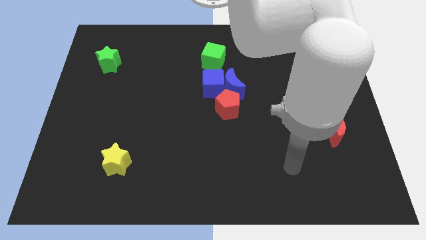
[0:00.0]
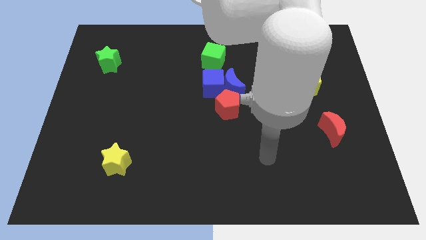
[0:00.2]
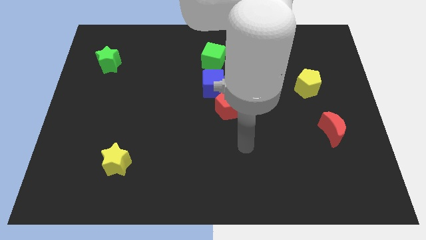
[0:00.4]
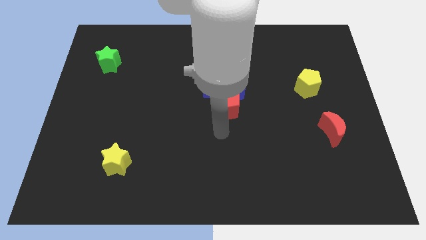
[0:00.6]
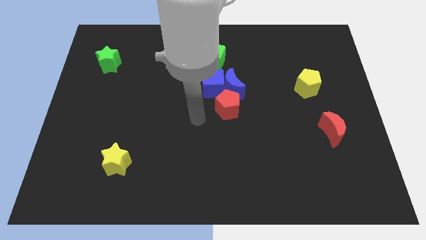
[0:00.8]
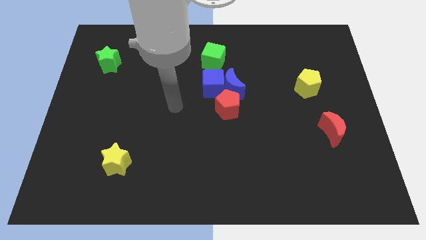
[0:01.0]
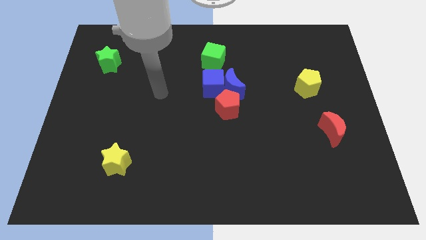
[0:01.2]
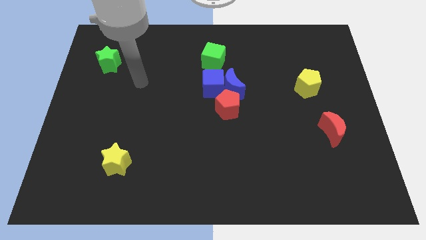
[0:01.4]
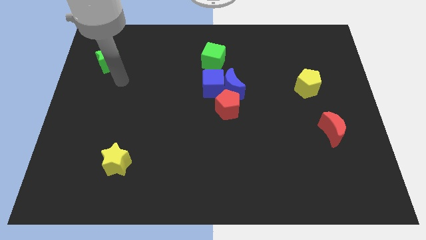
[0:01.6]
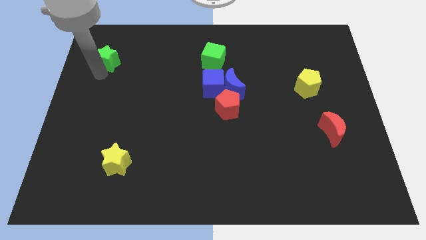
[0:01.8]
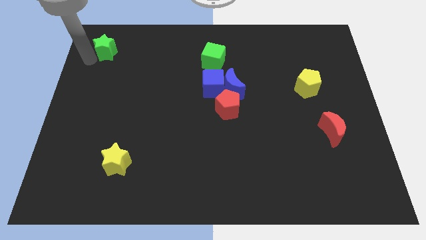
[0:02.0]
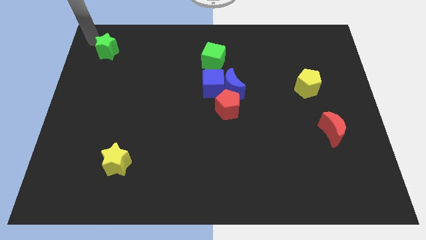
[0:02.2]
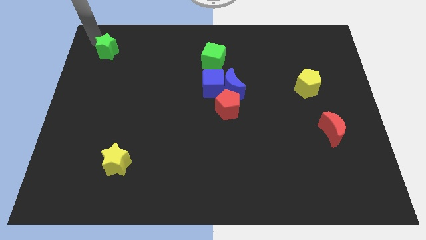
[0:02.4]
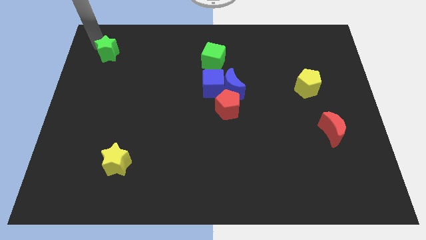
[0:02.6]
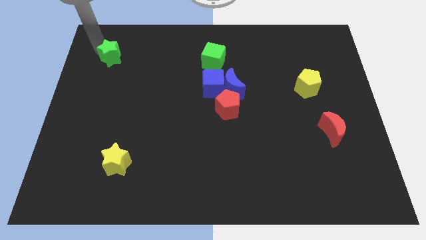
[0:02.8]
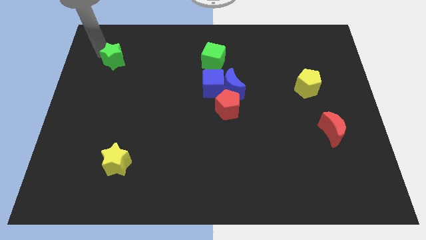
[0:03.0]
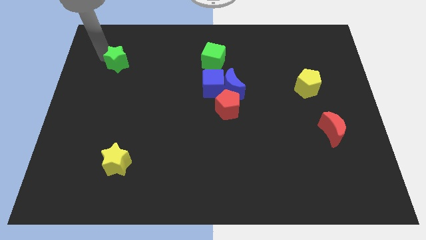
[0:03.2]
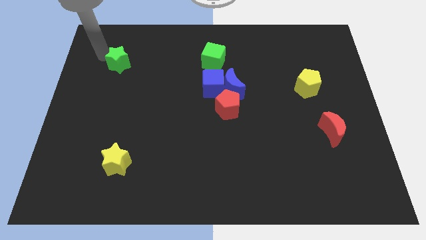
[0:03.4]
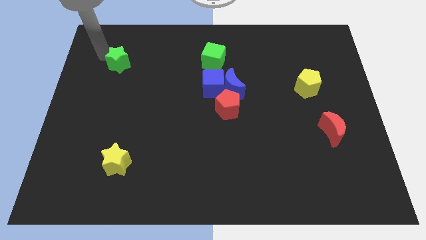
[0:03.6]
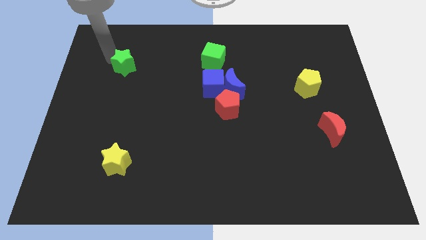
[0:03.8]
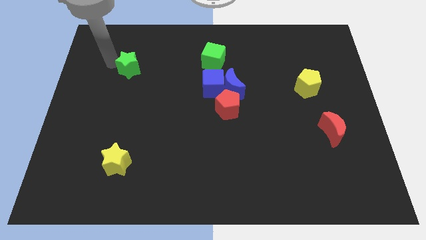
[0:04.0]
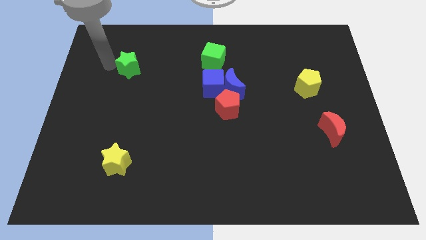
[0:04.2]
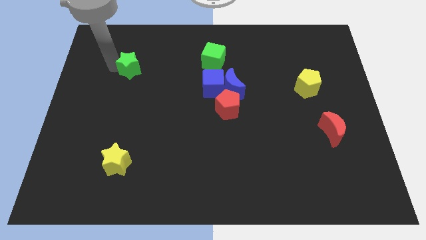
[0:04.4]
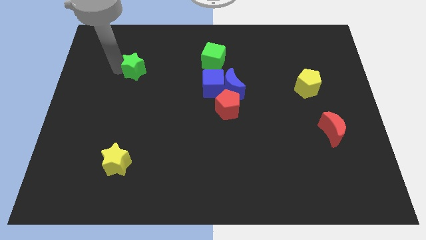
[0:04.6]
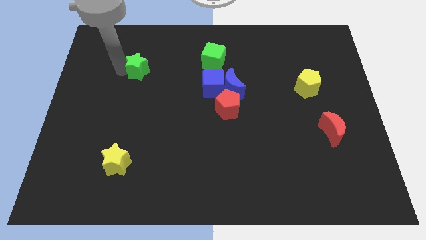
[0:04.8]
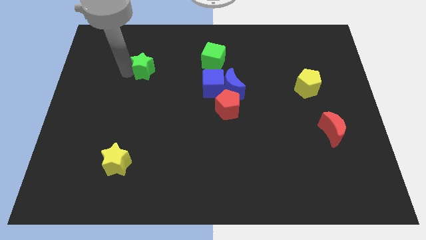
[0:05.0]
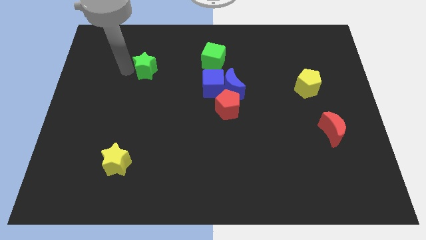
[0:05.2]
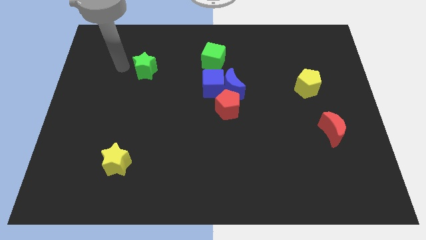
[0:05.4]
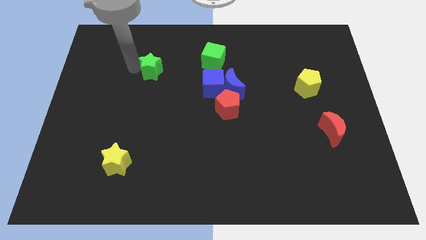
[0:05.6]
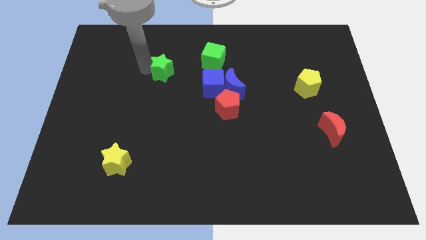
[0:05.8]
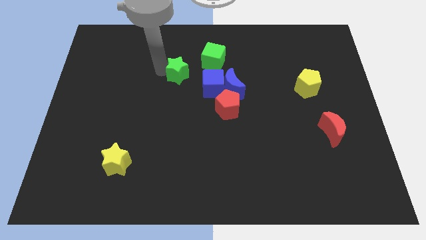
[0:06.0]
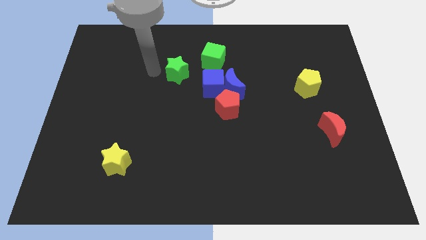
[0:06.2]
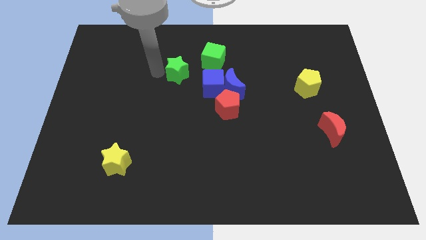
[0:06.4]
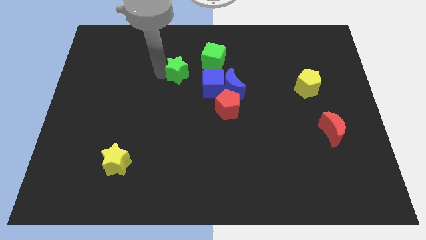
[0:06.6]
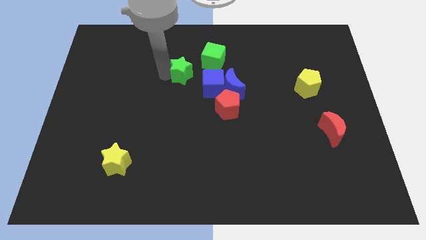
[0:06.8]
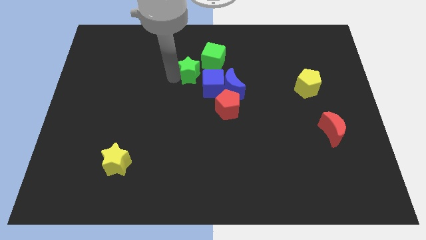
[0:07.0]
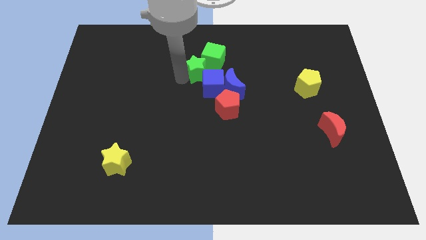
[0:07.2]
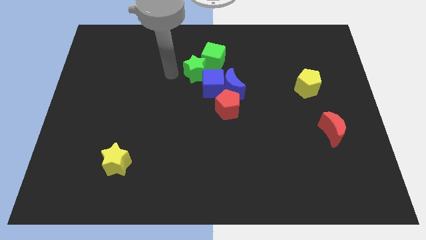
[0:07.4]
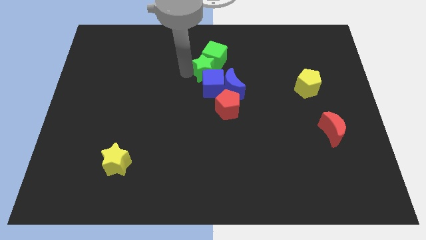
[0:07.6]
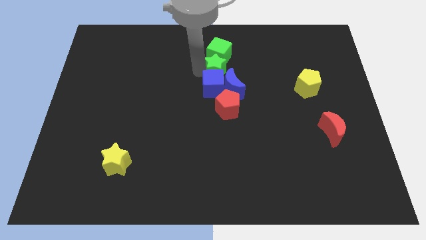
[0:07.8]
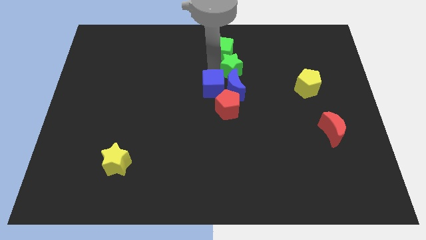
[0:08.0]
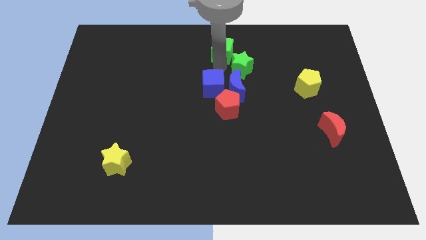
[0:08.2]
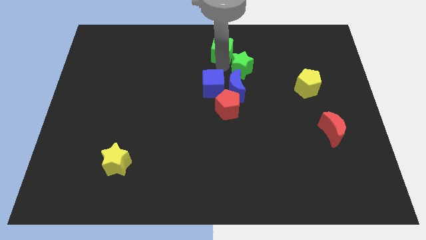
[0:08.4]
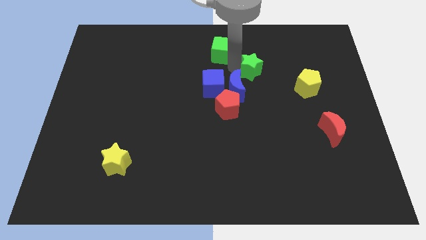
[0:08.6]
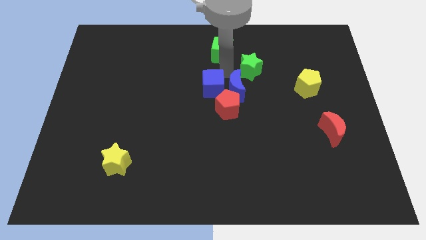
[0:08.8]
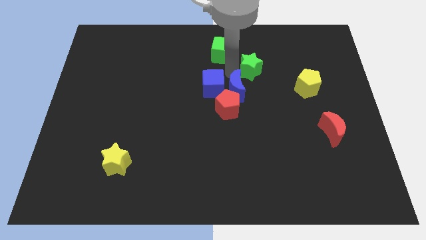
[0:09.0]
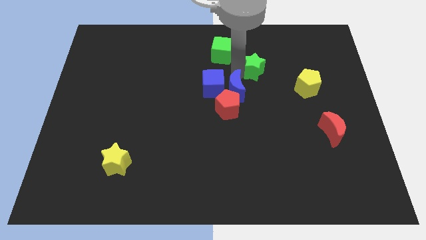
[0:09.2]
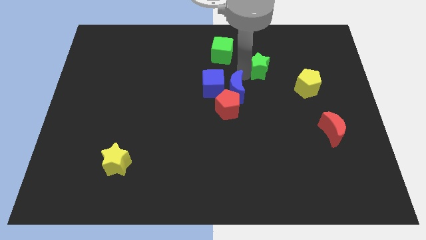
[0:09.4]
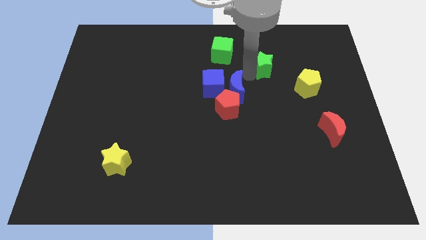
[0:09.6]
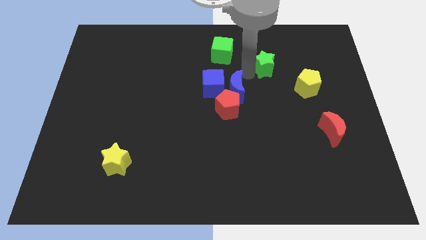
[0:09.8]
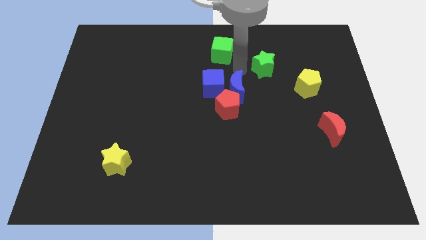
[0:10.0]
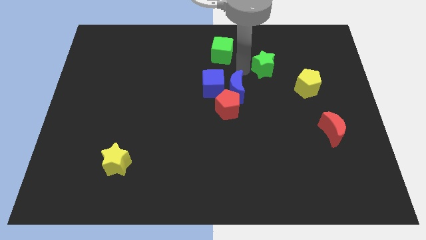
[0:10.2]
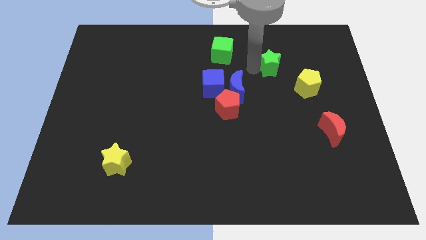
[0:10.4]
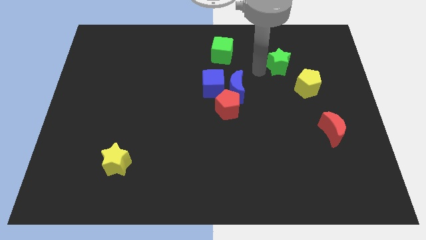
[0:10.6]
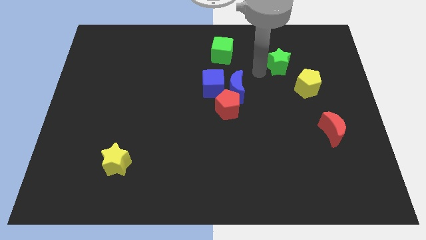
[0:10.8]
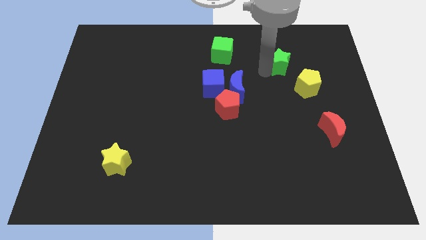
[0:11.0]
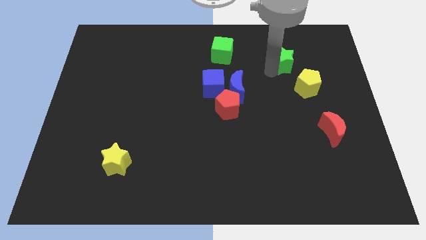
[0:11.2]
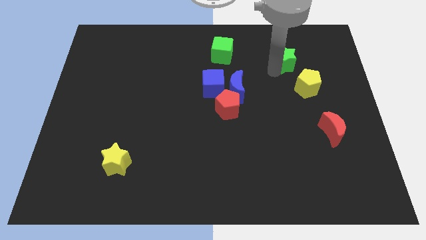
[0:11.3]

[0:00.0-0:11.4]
move the green star to the top of the yellow pentagon
